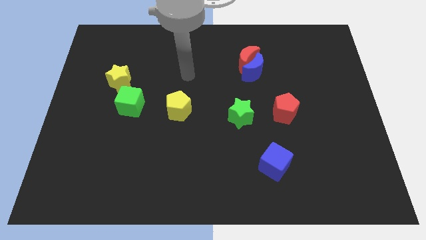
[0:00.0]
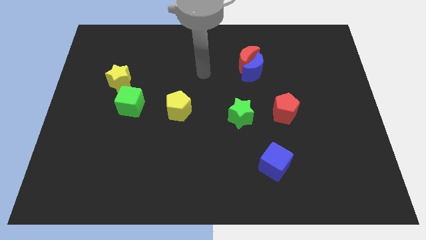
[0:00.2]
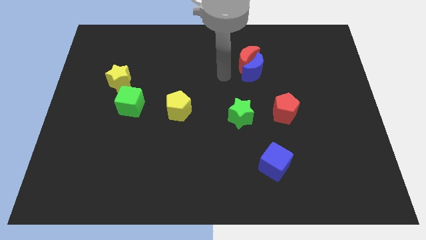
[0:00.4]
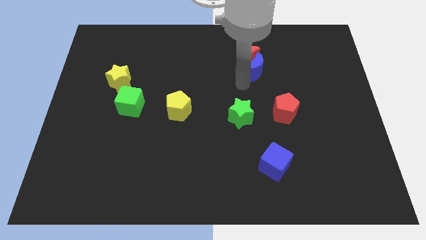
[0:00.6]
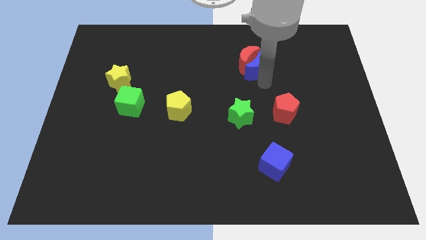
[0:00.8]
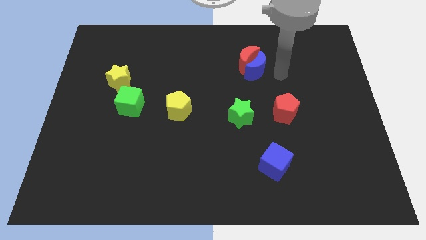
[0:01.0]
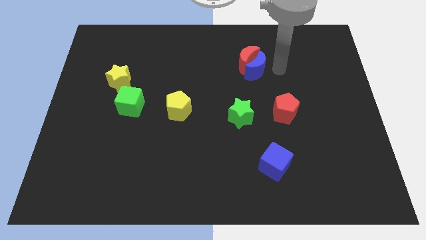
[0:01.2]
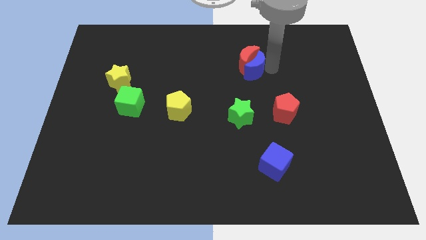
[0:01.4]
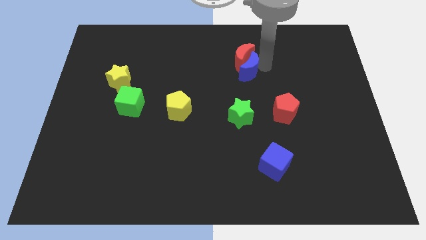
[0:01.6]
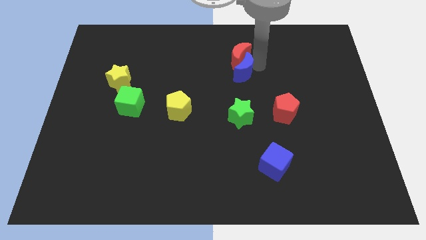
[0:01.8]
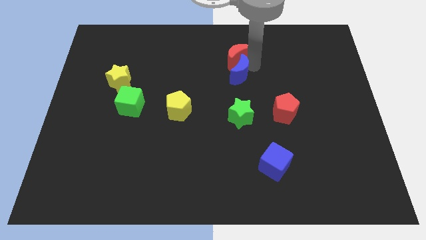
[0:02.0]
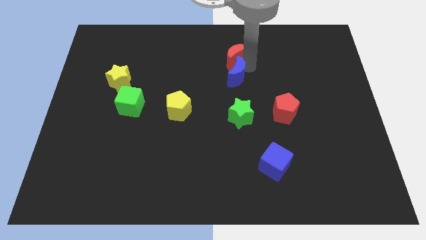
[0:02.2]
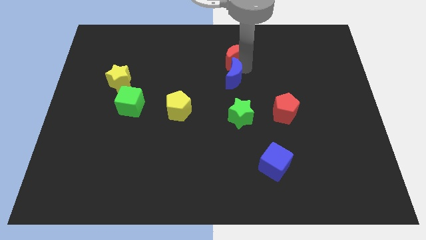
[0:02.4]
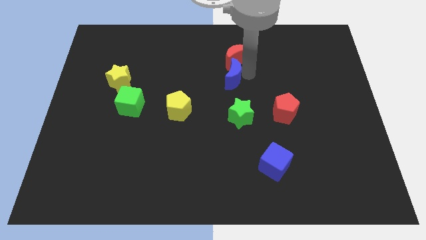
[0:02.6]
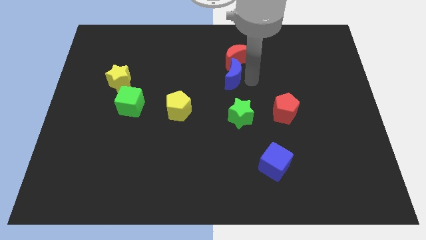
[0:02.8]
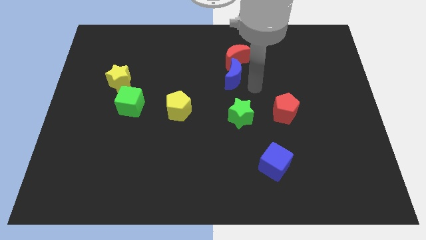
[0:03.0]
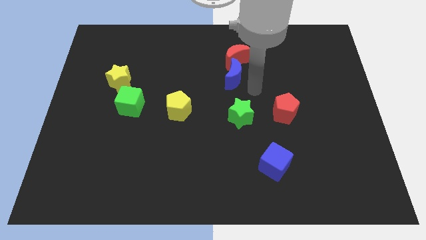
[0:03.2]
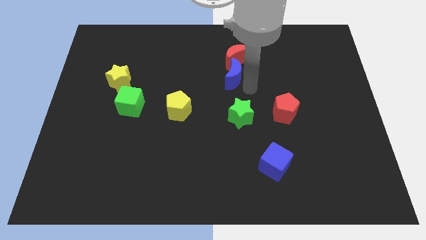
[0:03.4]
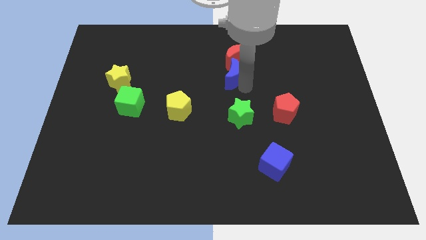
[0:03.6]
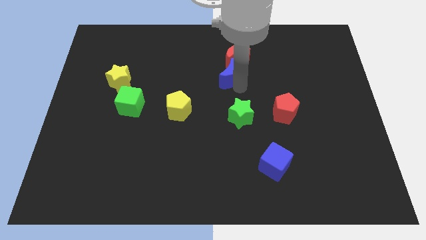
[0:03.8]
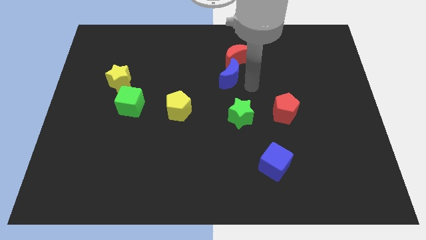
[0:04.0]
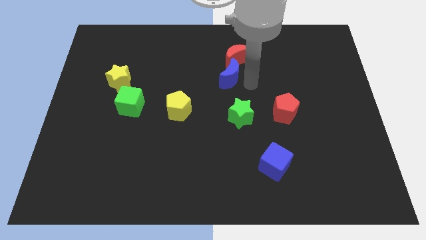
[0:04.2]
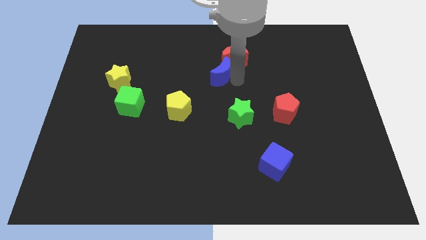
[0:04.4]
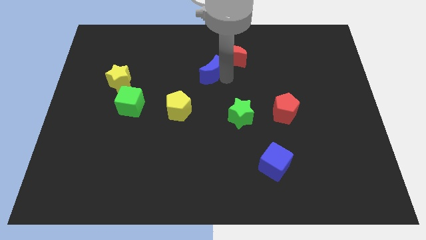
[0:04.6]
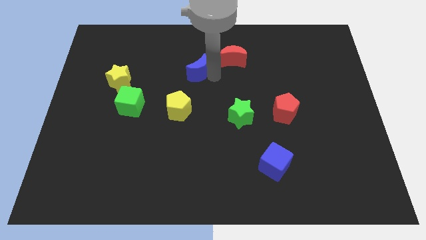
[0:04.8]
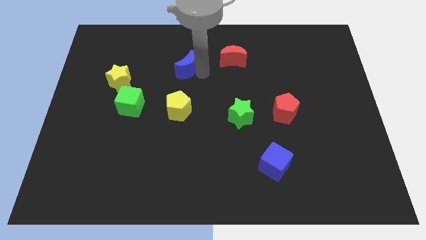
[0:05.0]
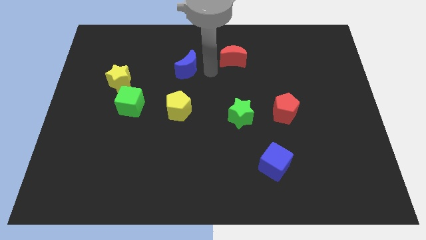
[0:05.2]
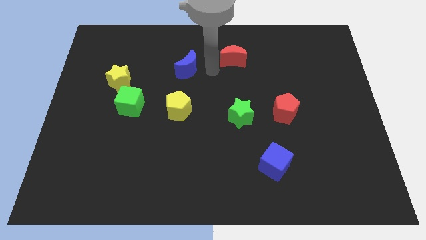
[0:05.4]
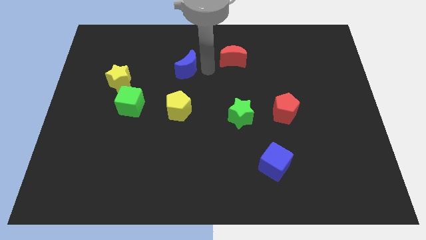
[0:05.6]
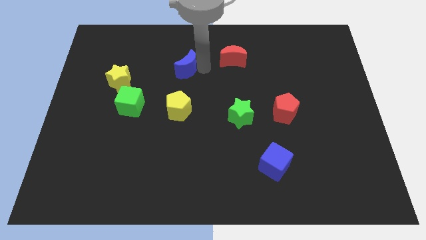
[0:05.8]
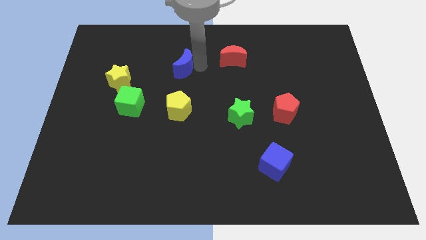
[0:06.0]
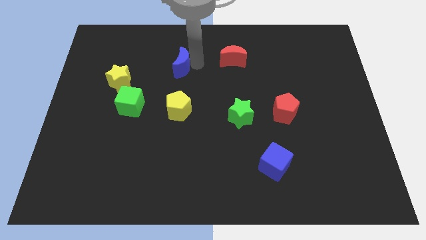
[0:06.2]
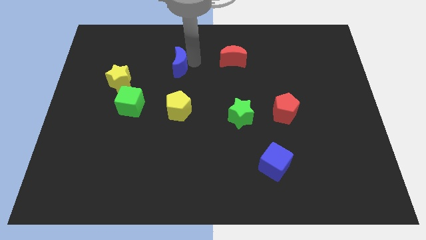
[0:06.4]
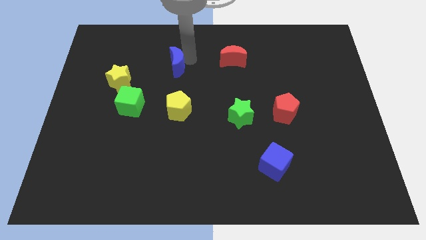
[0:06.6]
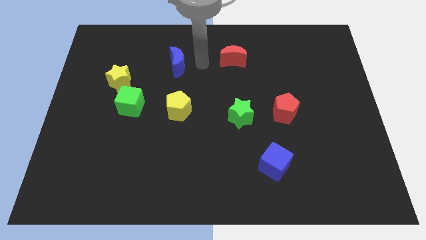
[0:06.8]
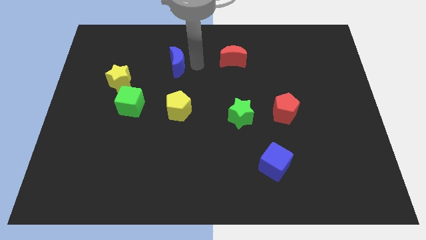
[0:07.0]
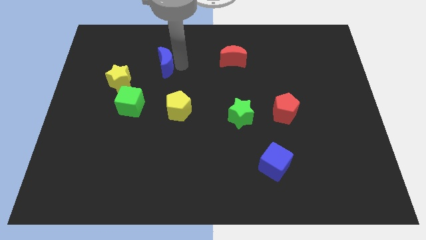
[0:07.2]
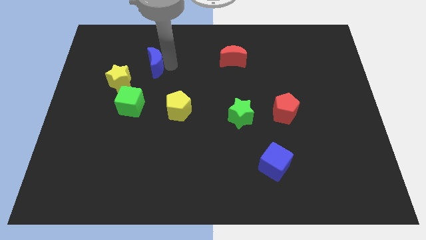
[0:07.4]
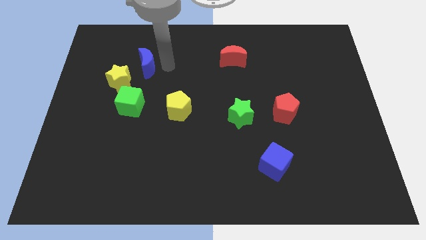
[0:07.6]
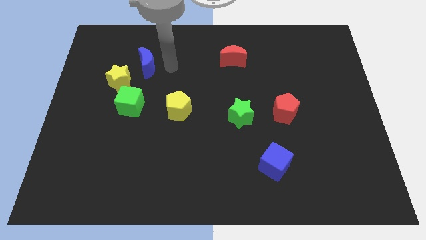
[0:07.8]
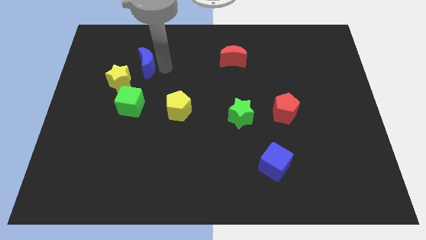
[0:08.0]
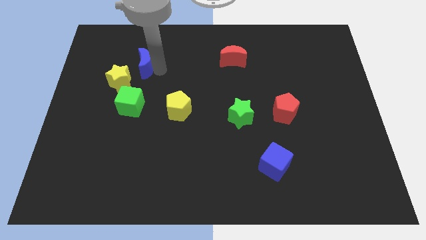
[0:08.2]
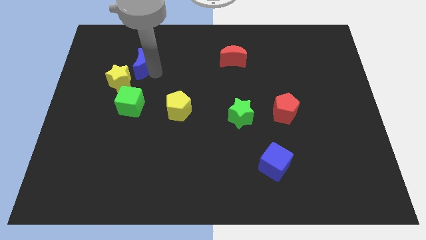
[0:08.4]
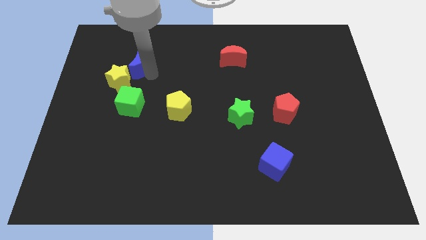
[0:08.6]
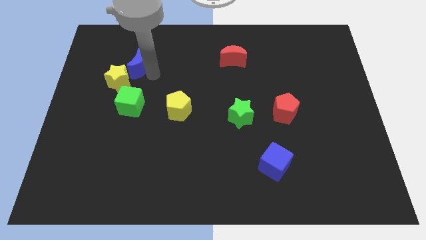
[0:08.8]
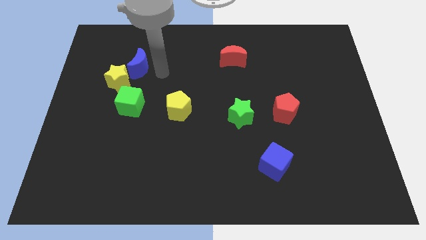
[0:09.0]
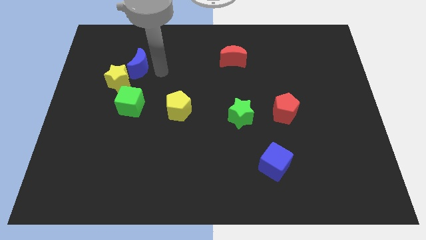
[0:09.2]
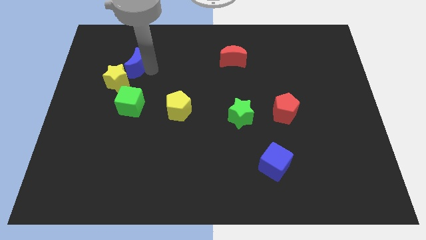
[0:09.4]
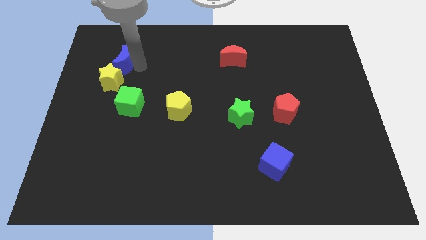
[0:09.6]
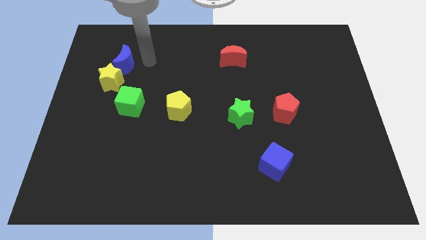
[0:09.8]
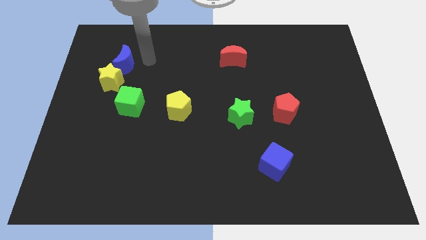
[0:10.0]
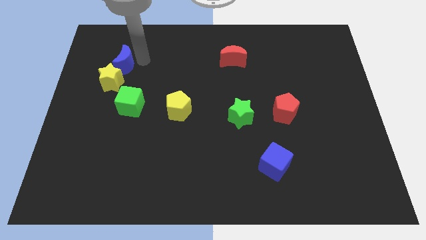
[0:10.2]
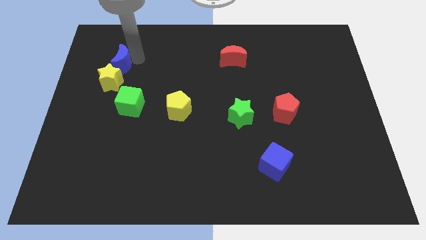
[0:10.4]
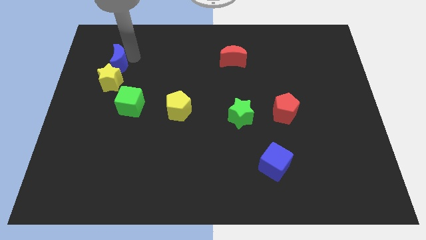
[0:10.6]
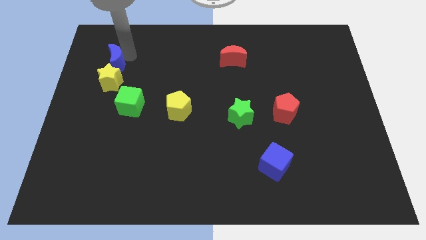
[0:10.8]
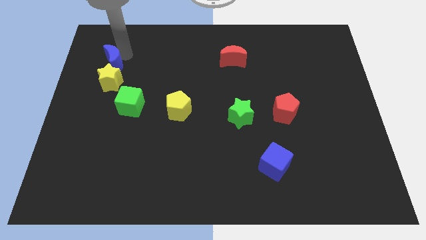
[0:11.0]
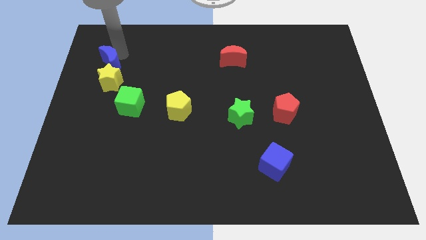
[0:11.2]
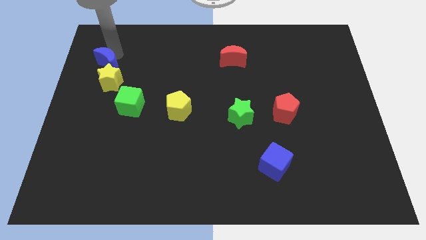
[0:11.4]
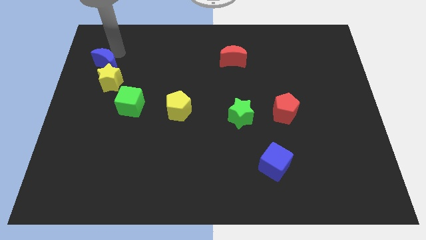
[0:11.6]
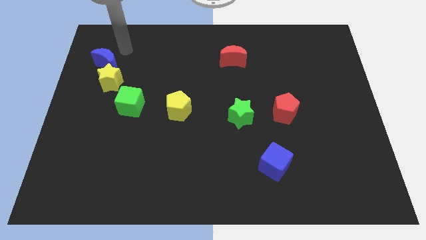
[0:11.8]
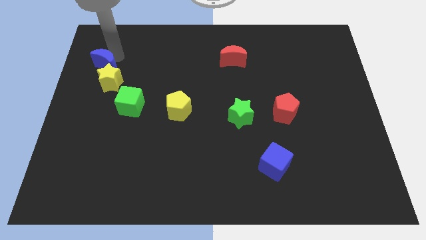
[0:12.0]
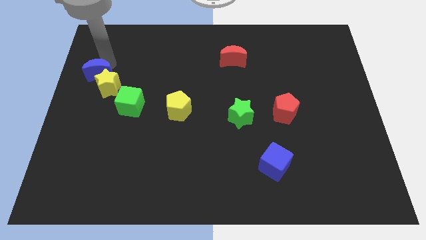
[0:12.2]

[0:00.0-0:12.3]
slide the blue moon to the center left
